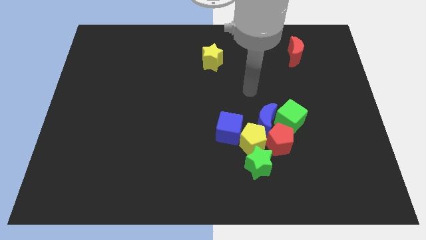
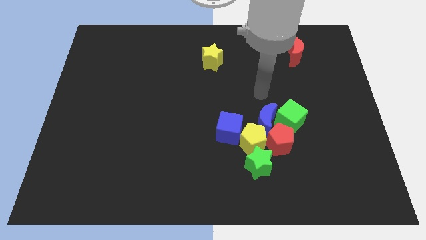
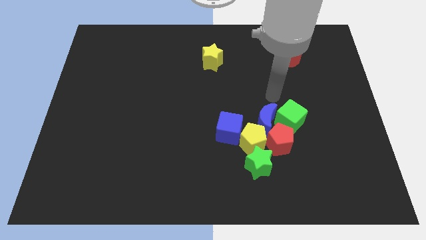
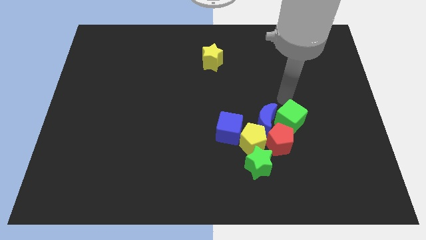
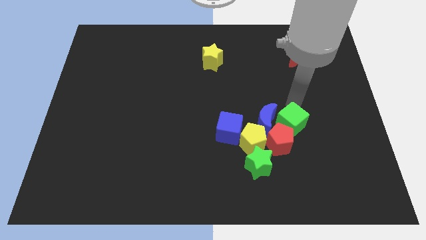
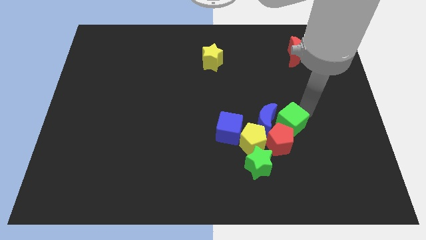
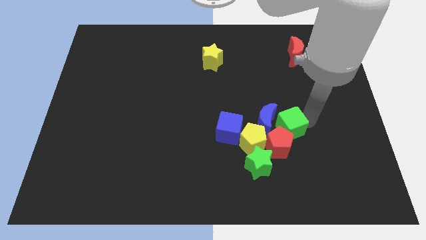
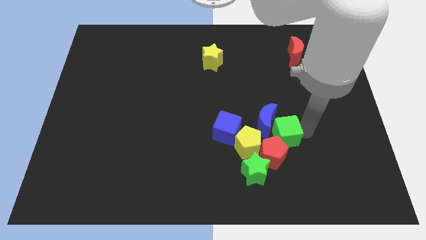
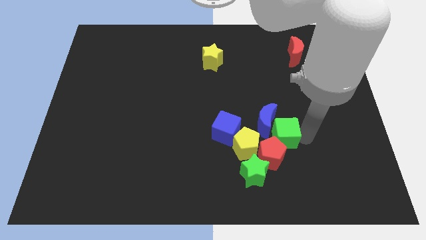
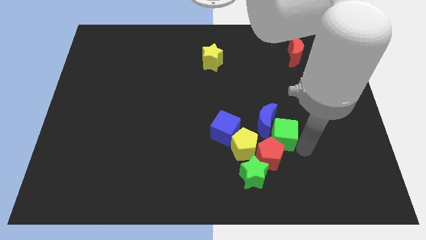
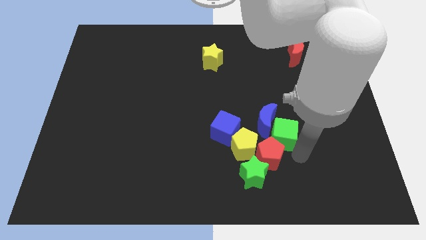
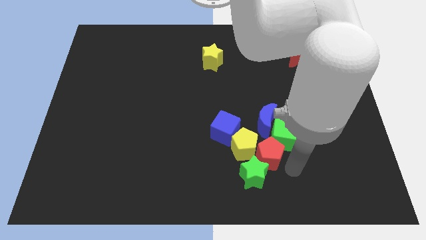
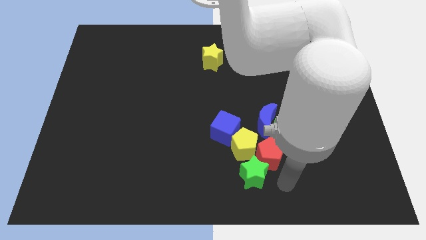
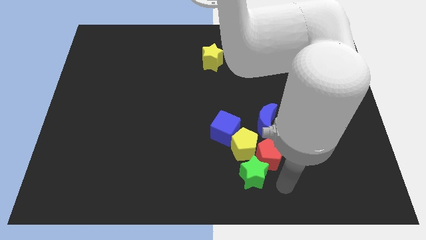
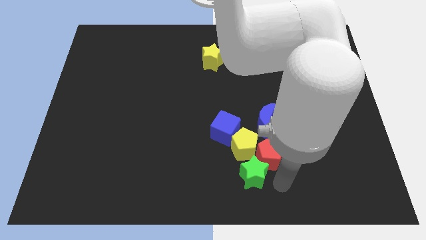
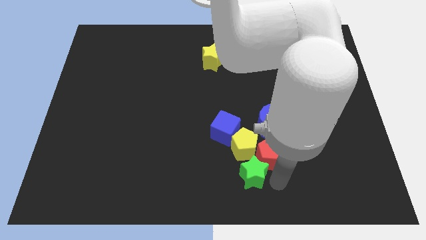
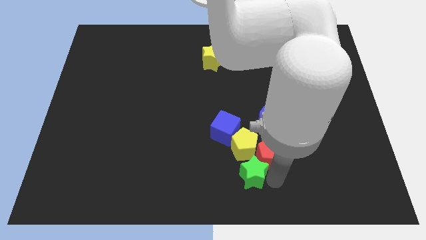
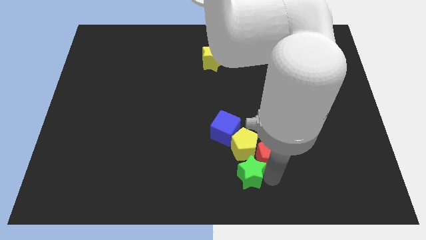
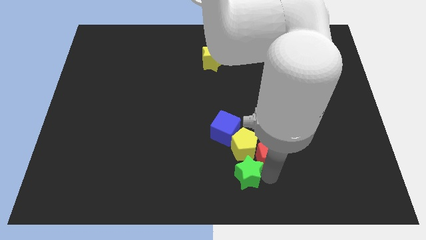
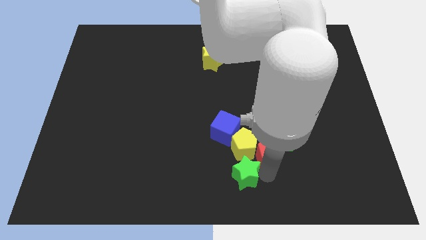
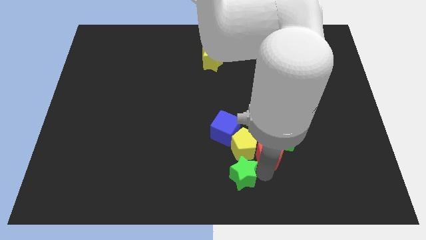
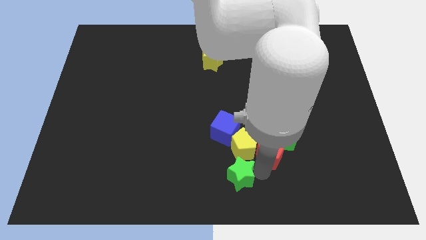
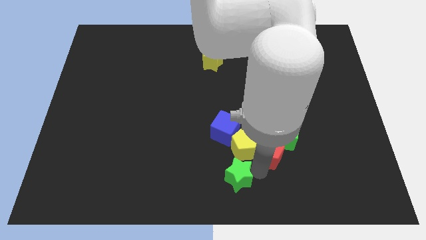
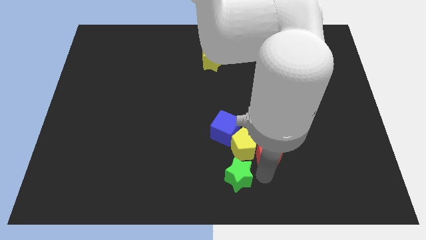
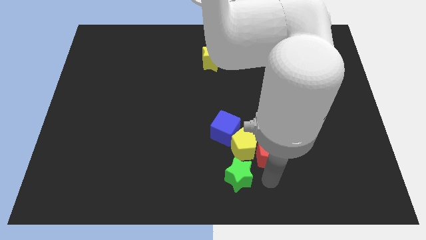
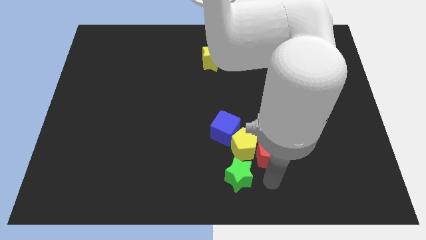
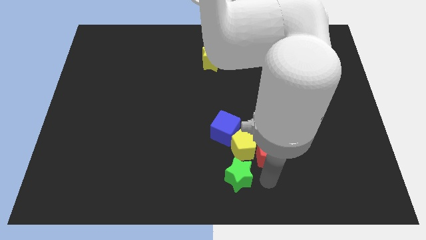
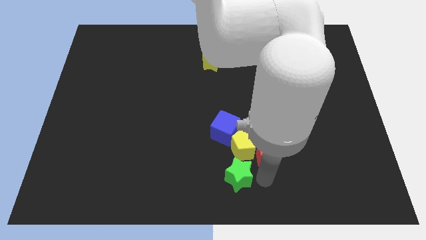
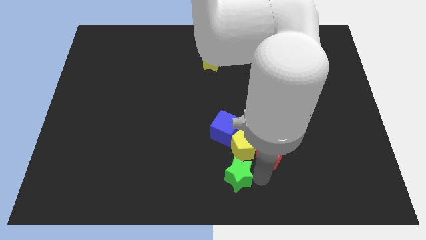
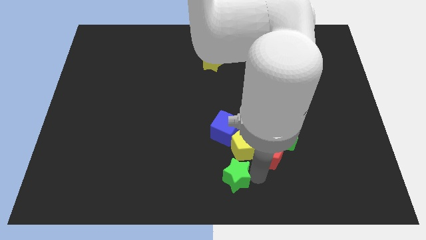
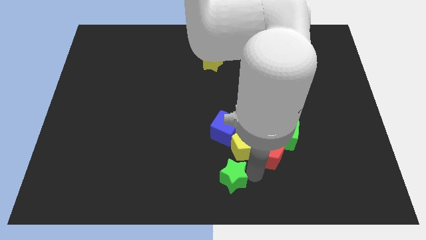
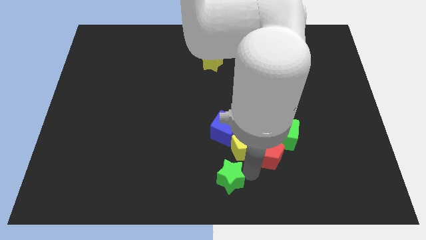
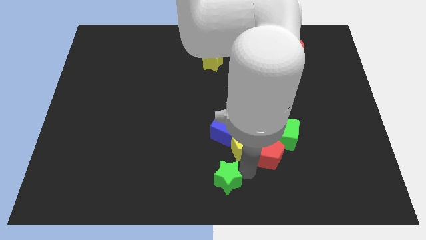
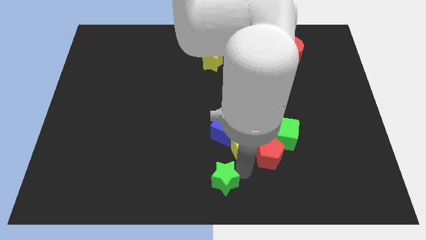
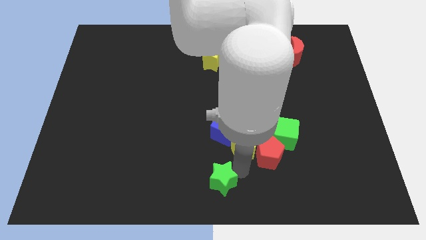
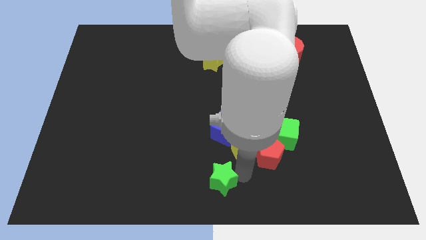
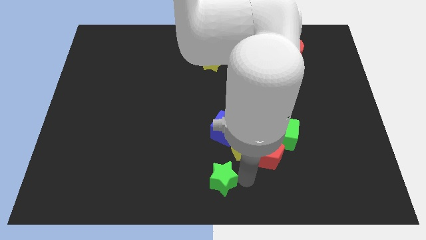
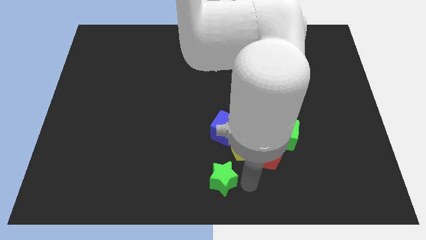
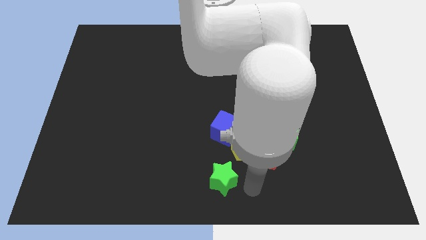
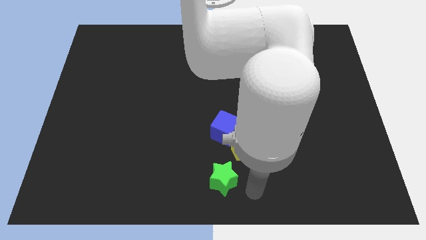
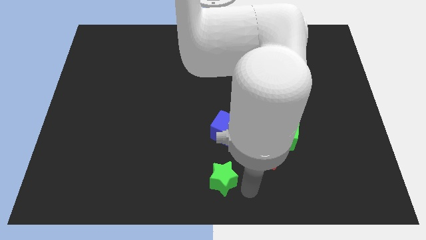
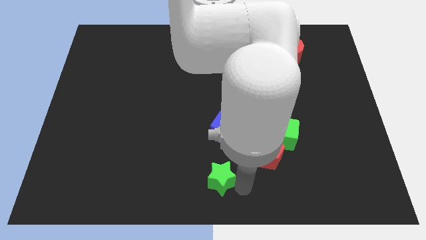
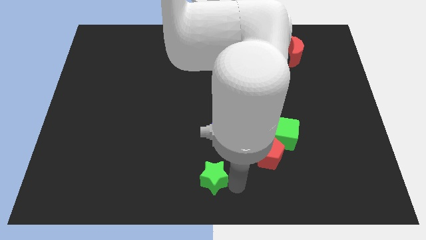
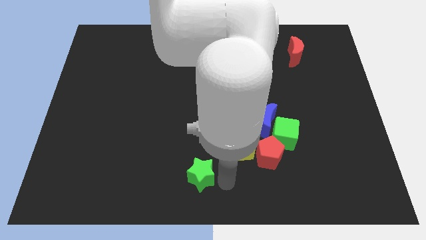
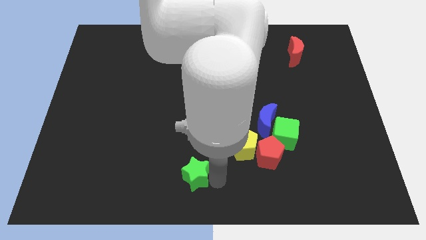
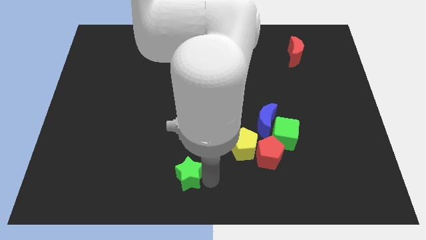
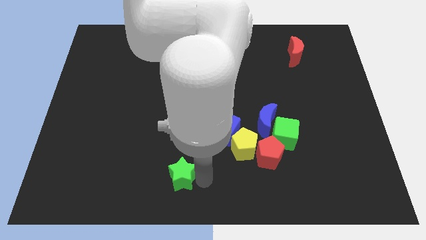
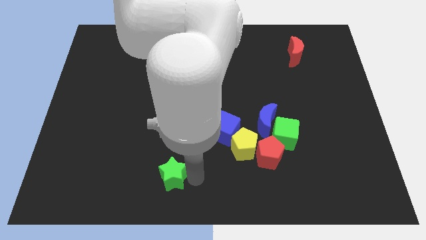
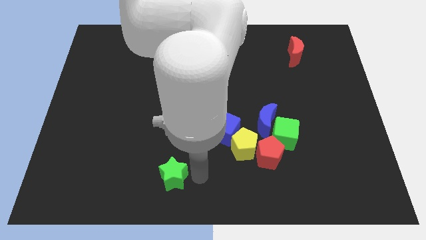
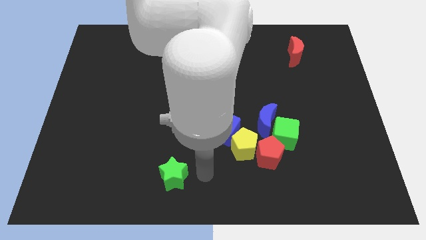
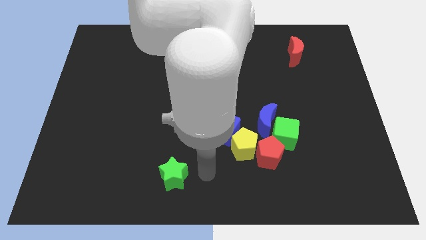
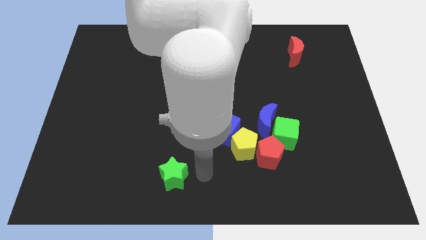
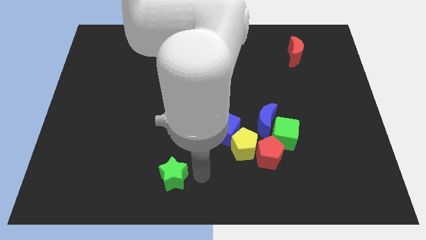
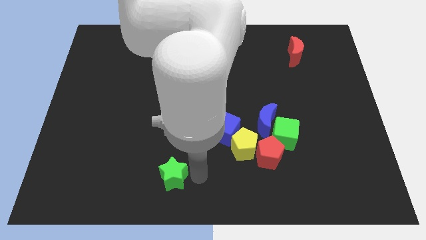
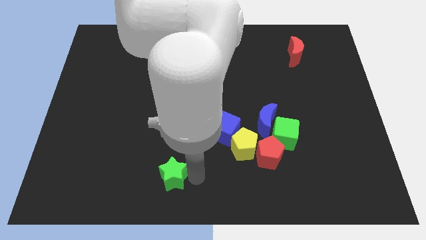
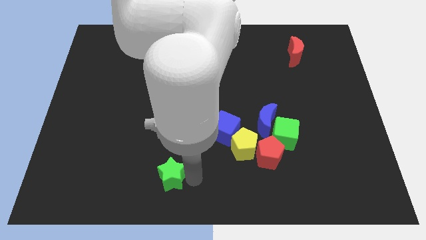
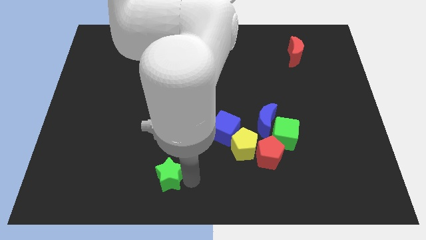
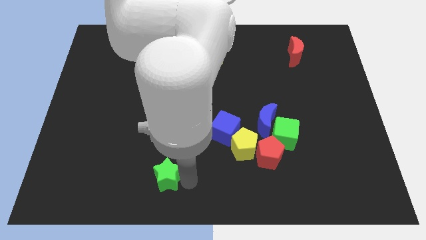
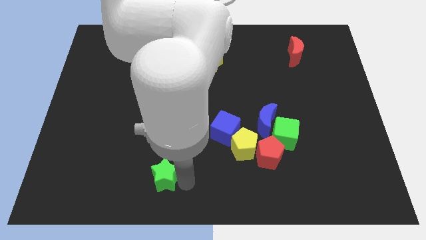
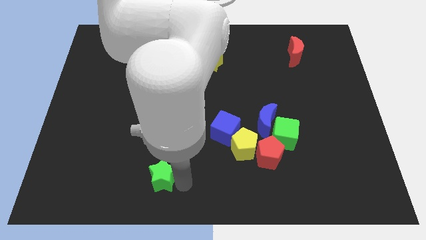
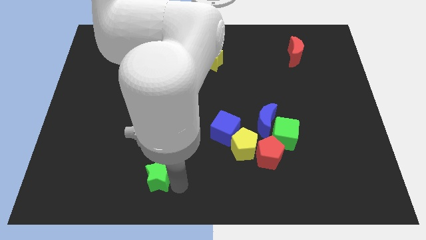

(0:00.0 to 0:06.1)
push the green star to the left

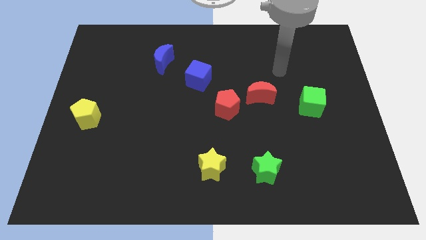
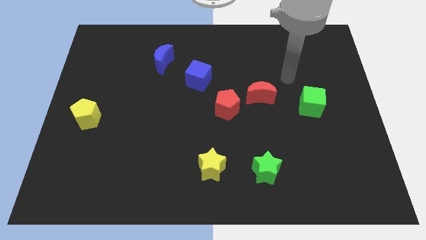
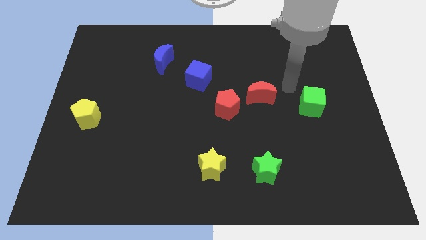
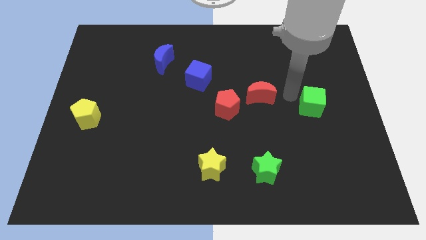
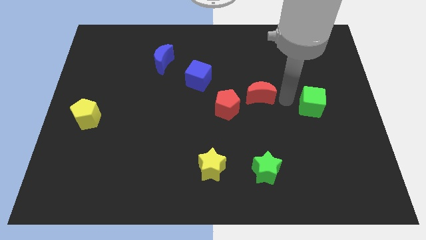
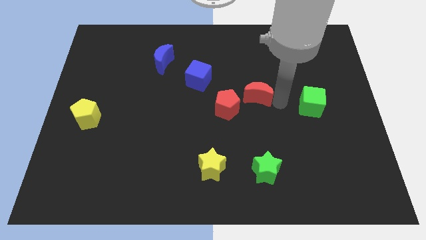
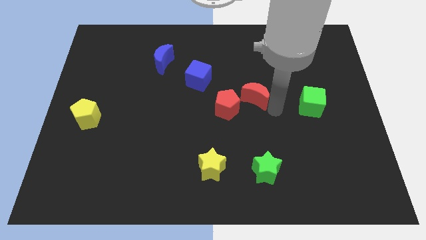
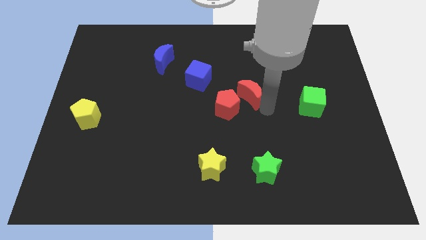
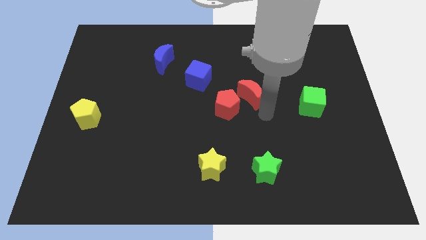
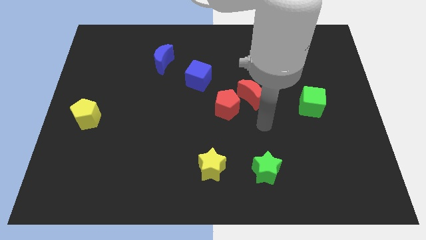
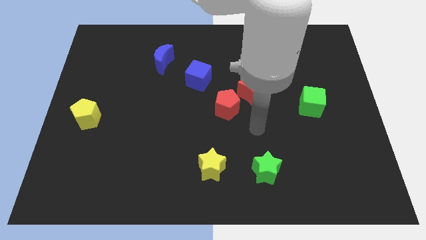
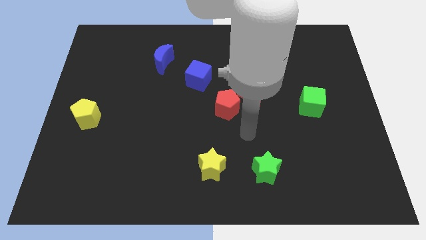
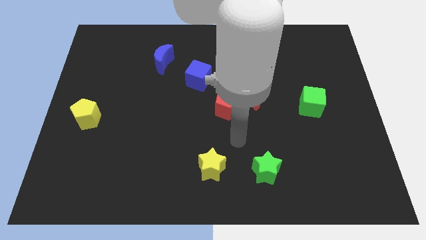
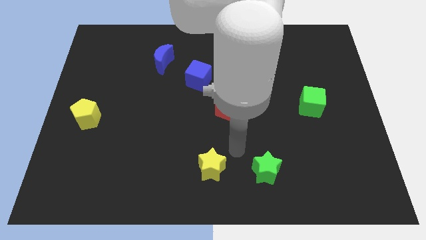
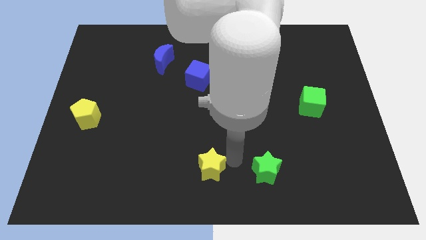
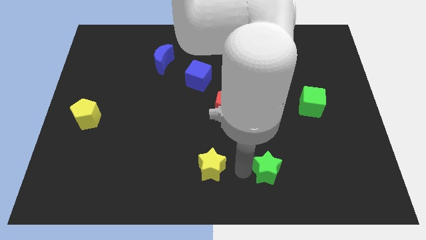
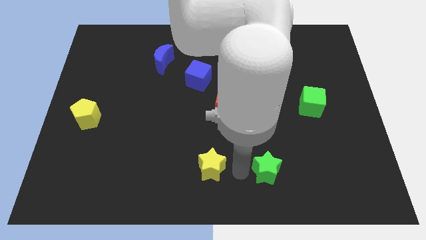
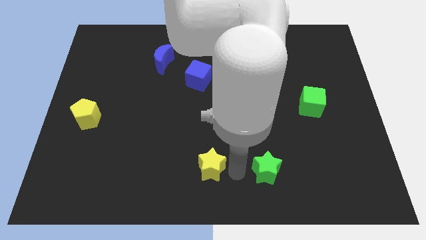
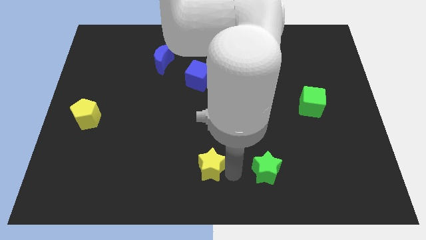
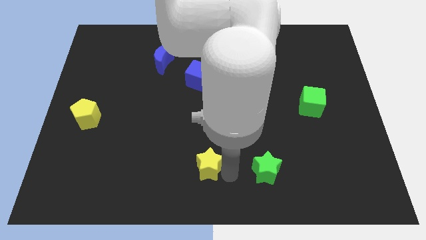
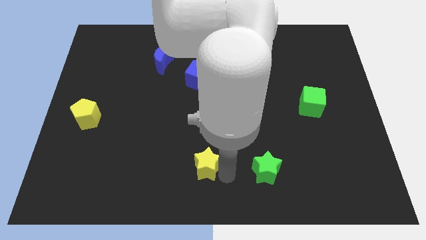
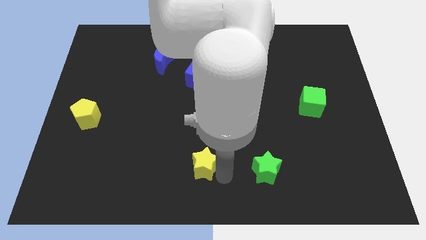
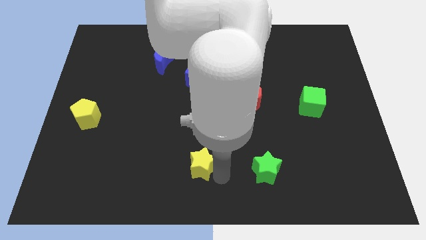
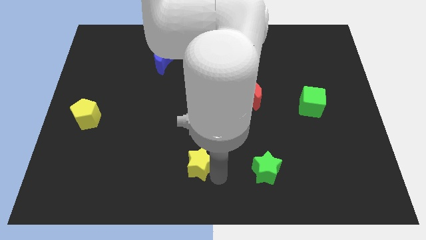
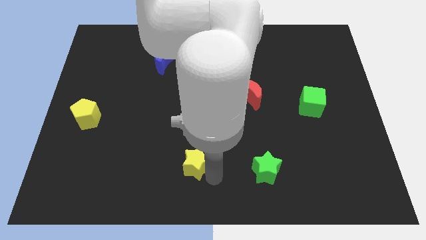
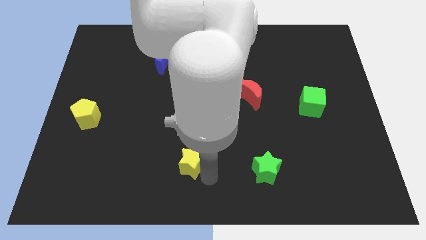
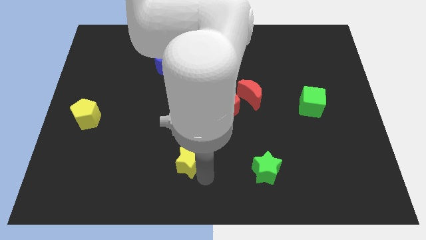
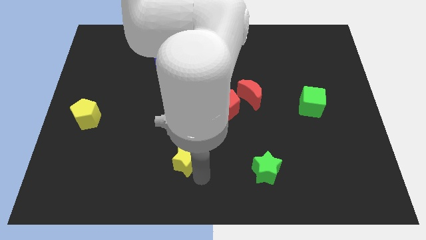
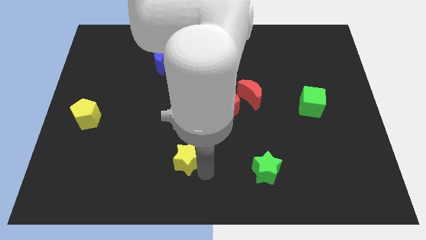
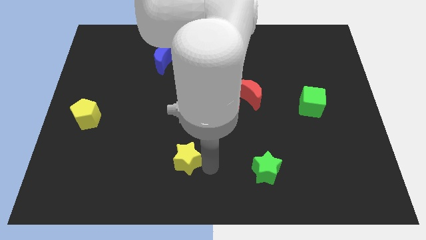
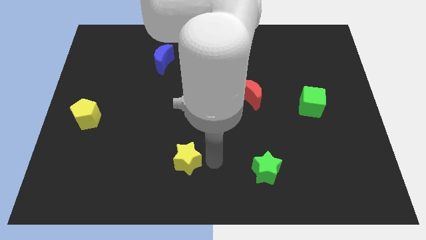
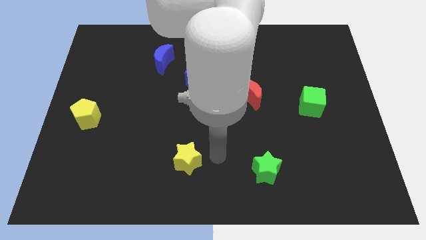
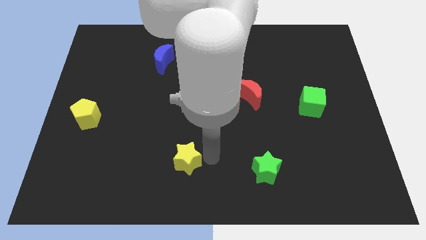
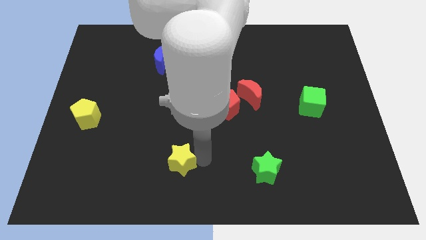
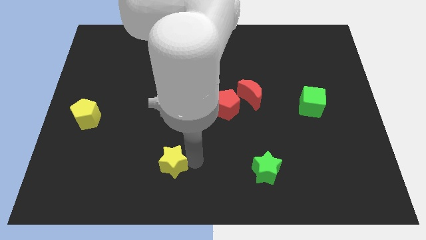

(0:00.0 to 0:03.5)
move the yellow star left a little
